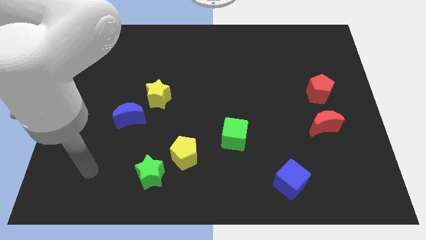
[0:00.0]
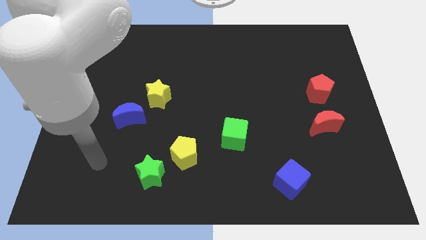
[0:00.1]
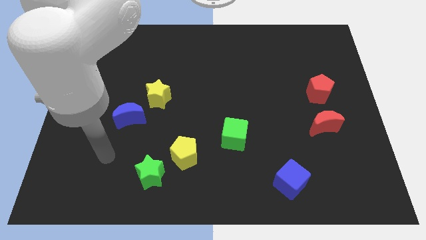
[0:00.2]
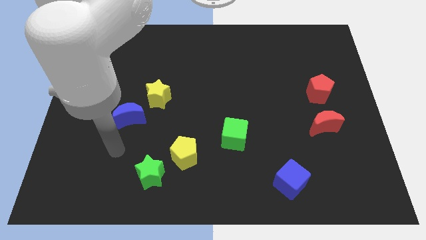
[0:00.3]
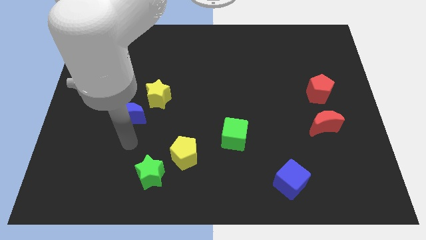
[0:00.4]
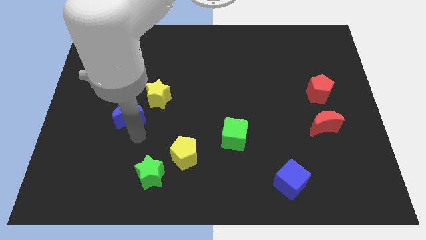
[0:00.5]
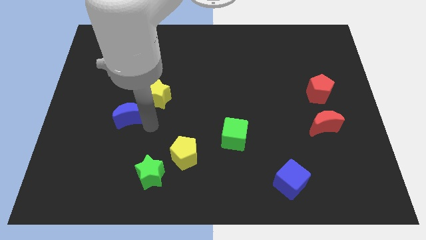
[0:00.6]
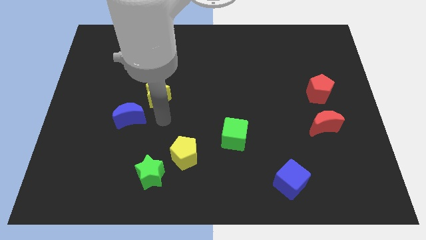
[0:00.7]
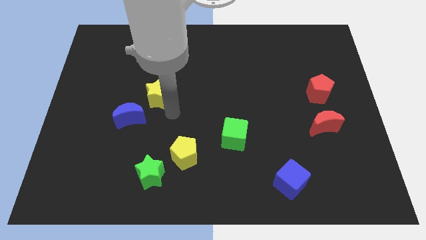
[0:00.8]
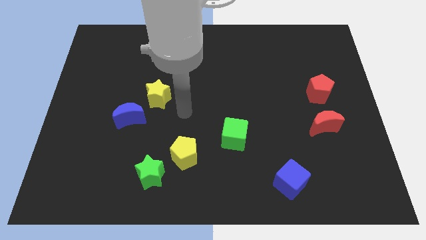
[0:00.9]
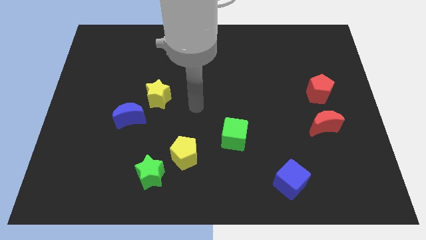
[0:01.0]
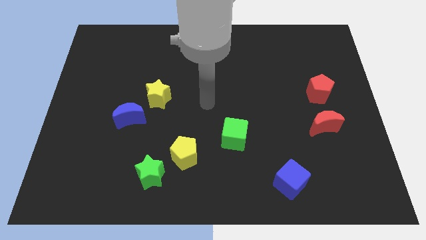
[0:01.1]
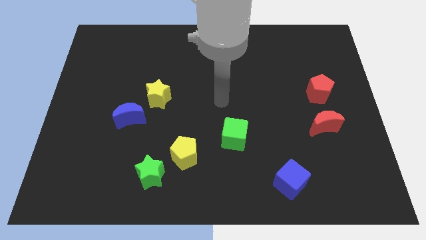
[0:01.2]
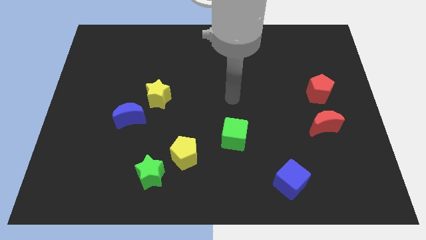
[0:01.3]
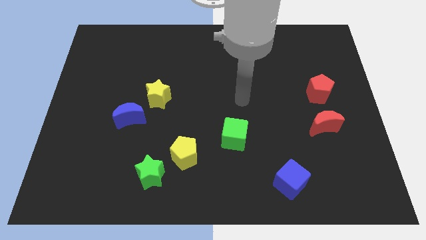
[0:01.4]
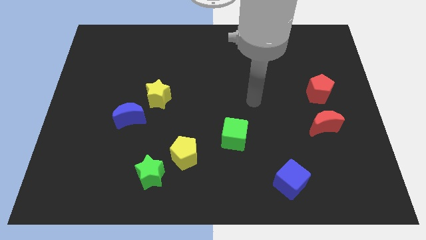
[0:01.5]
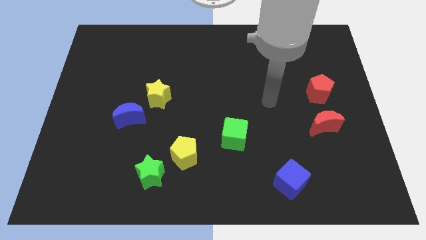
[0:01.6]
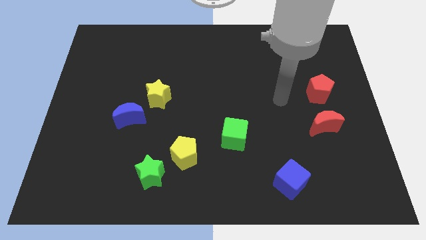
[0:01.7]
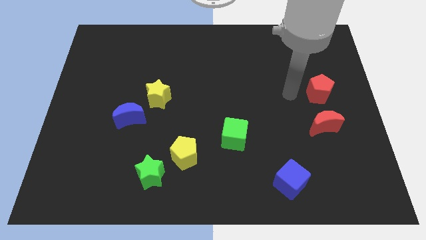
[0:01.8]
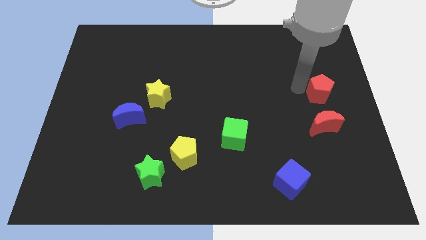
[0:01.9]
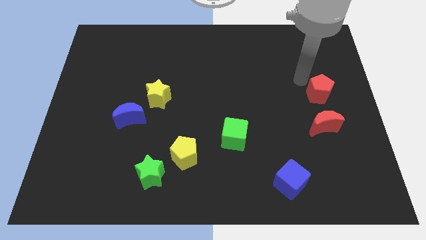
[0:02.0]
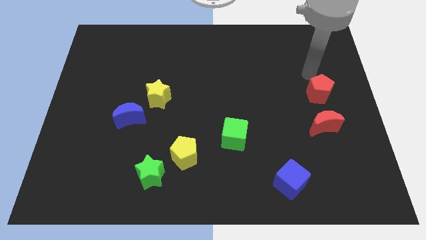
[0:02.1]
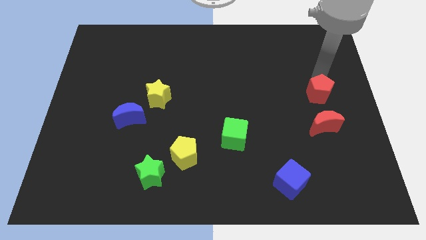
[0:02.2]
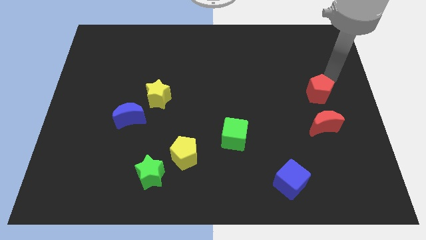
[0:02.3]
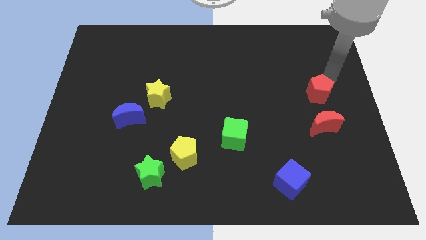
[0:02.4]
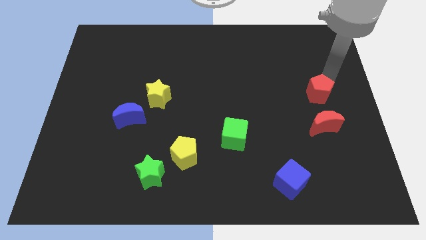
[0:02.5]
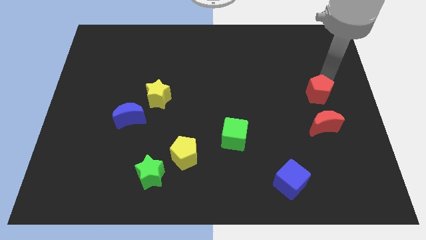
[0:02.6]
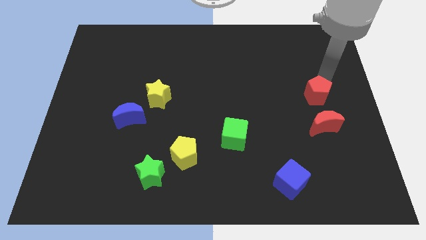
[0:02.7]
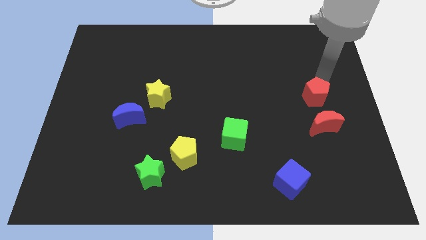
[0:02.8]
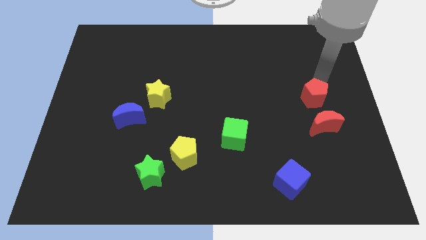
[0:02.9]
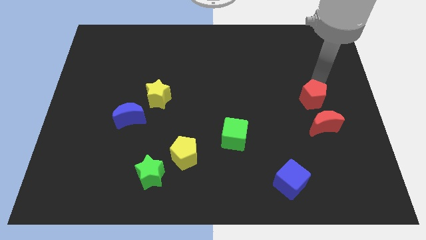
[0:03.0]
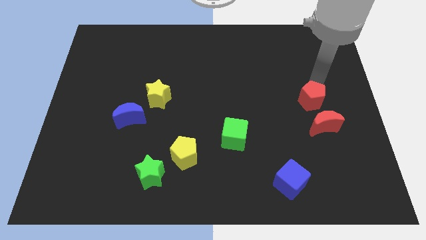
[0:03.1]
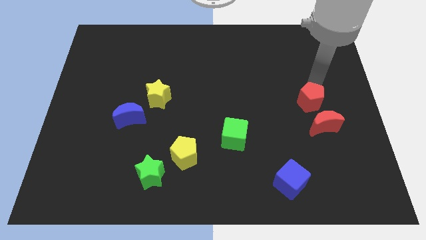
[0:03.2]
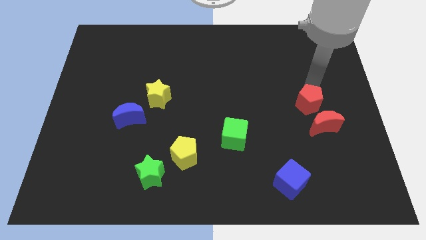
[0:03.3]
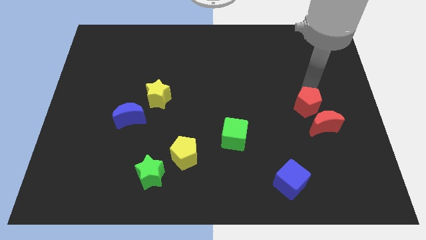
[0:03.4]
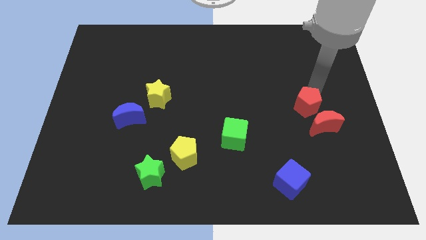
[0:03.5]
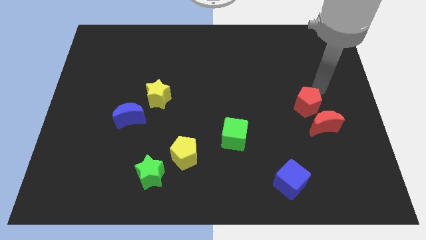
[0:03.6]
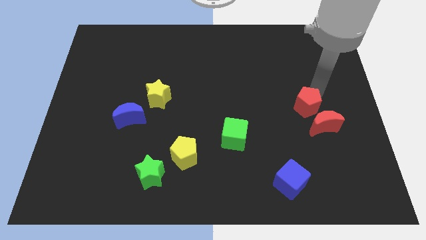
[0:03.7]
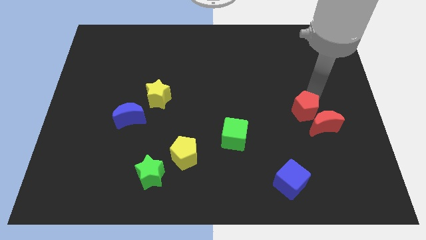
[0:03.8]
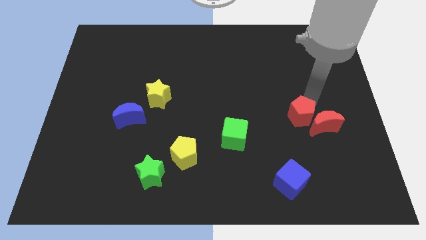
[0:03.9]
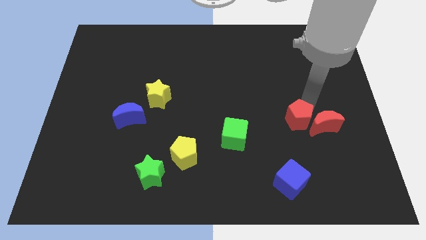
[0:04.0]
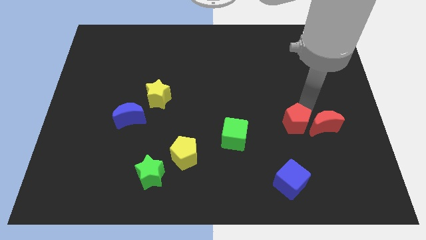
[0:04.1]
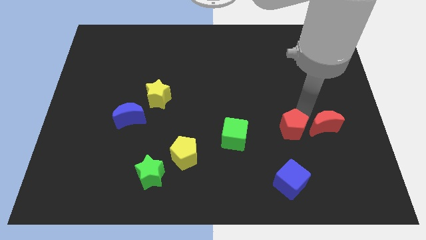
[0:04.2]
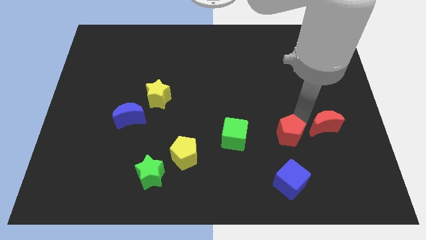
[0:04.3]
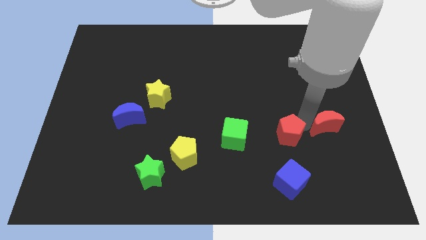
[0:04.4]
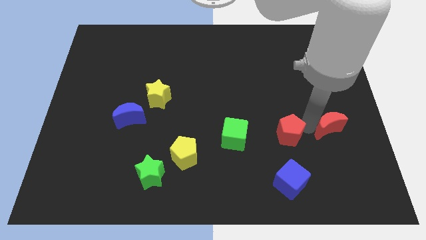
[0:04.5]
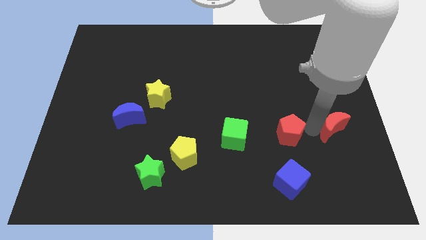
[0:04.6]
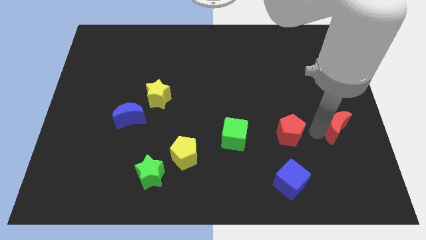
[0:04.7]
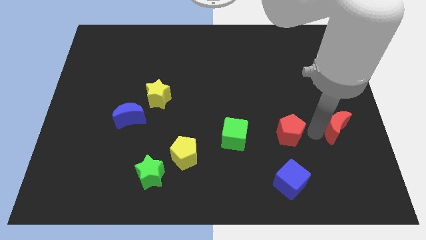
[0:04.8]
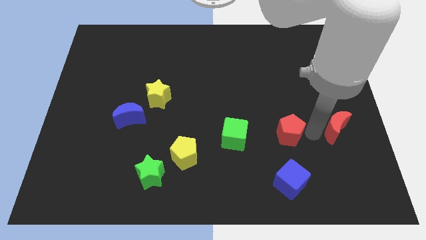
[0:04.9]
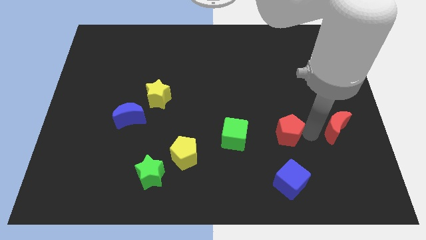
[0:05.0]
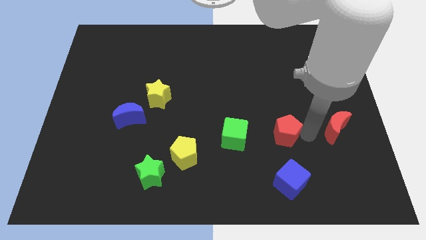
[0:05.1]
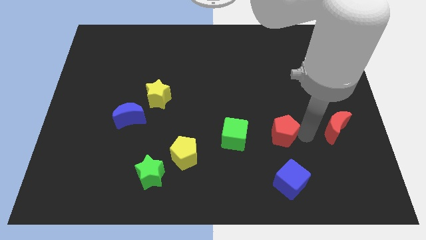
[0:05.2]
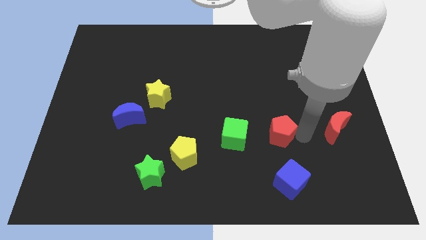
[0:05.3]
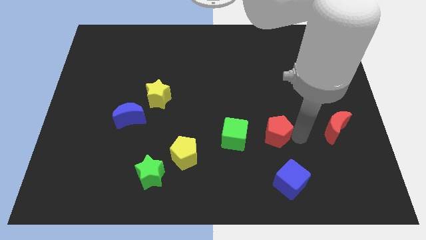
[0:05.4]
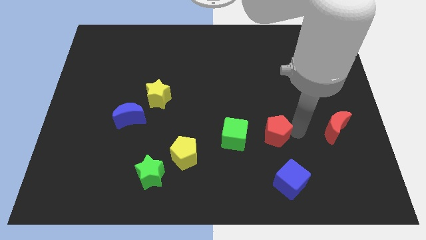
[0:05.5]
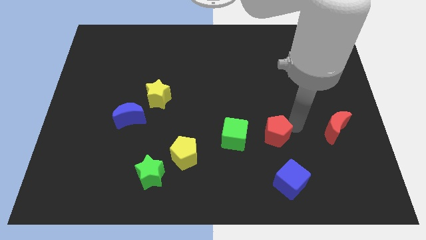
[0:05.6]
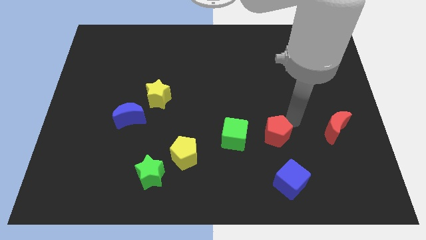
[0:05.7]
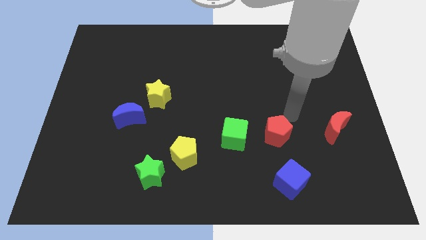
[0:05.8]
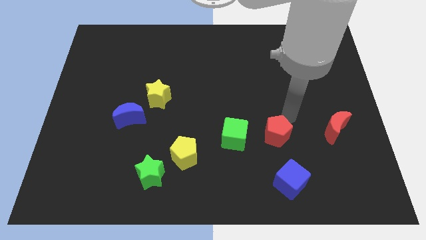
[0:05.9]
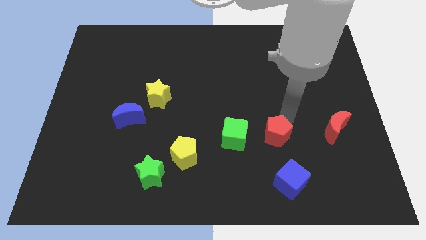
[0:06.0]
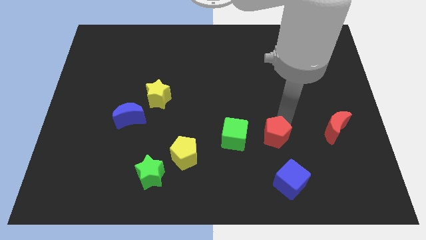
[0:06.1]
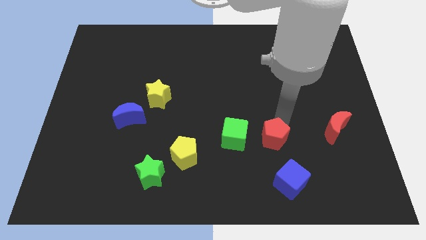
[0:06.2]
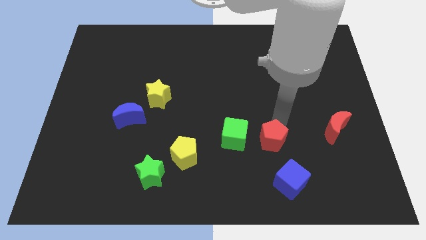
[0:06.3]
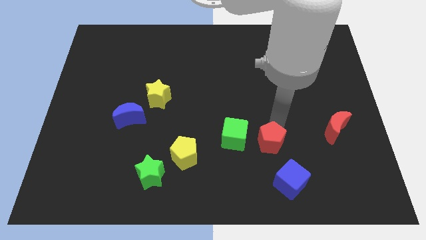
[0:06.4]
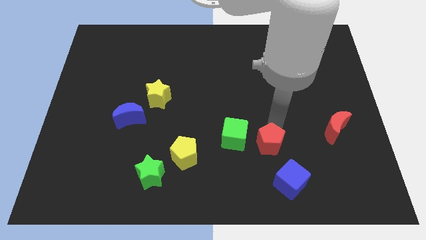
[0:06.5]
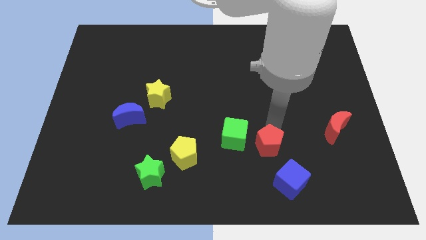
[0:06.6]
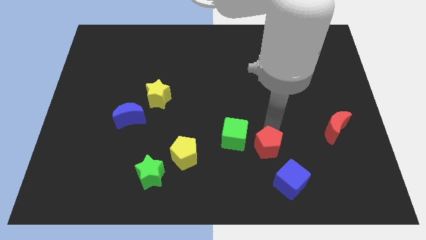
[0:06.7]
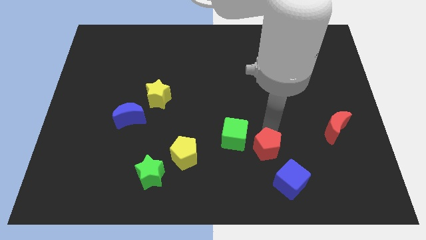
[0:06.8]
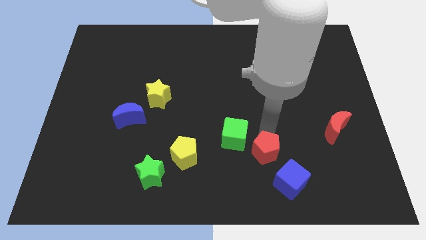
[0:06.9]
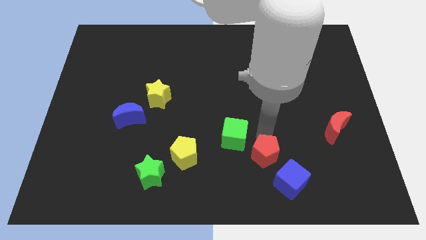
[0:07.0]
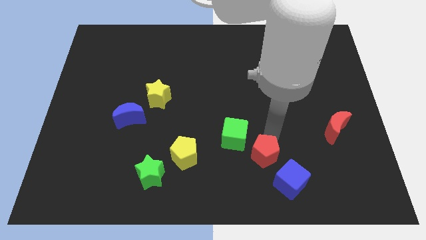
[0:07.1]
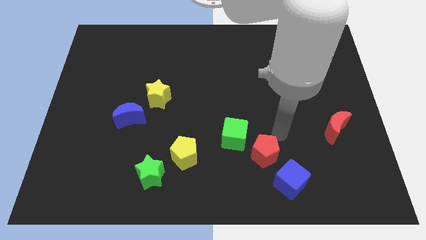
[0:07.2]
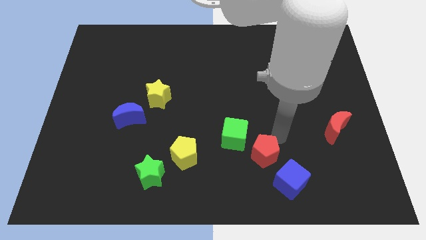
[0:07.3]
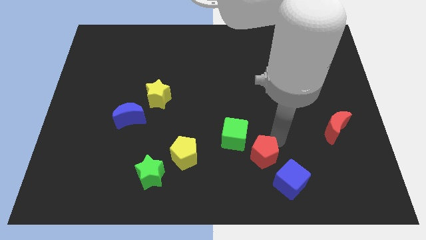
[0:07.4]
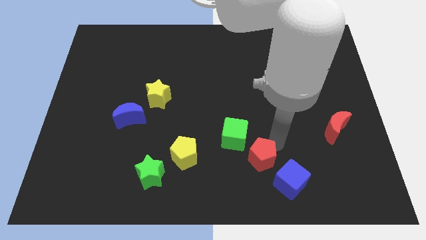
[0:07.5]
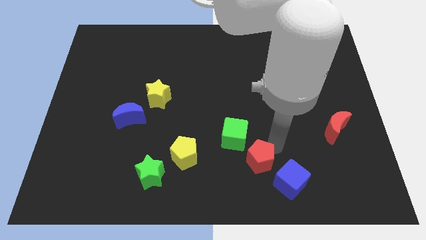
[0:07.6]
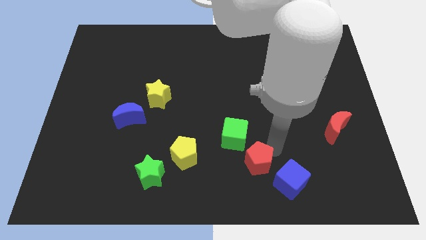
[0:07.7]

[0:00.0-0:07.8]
move the red pentagon just left of the blue cube
